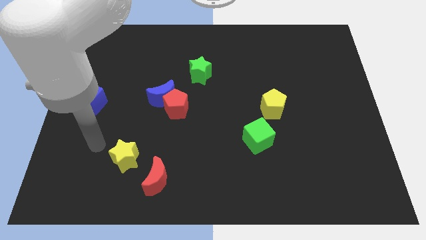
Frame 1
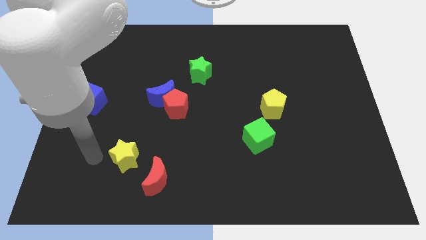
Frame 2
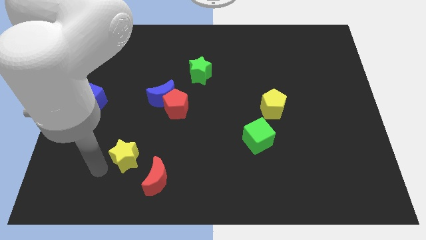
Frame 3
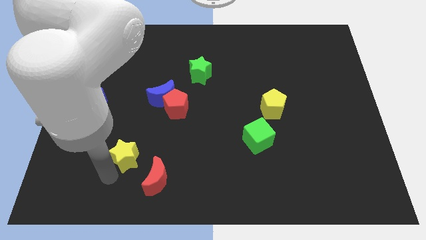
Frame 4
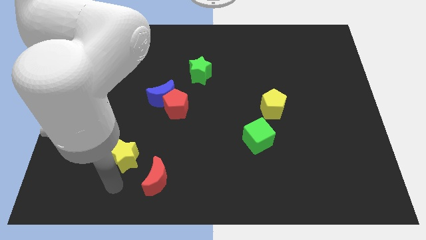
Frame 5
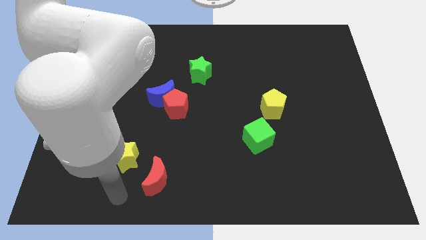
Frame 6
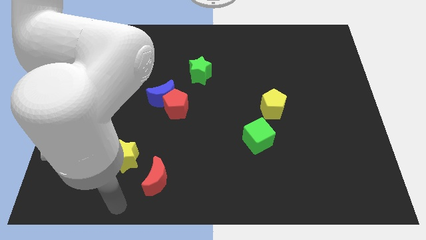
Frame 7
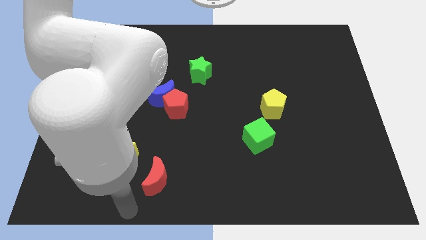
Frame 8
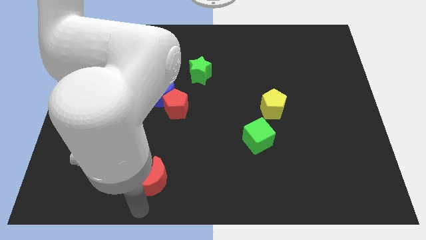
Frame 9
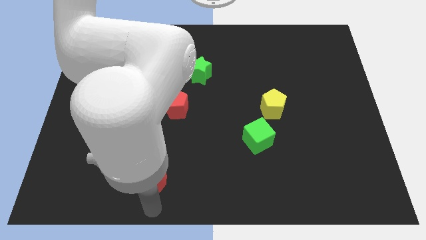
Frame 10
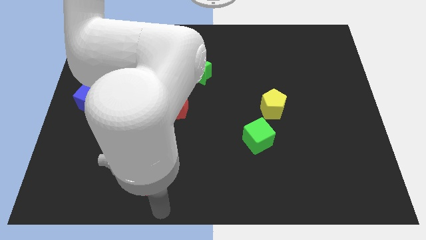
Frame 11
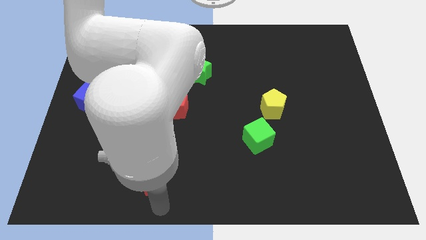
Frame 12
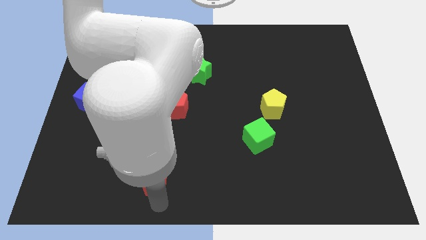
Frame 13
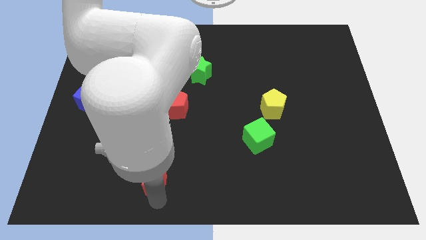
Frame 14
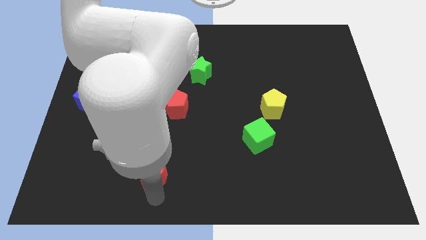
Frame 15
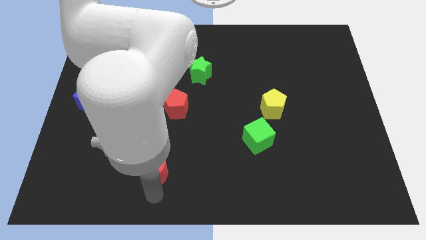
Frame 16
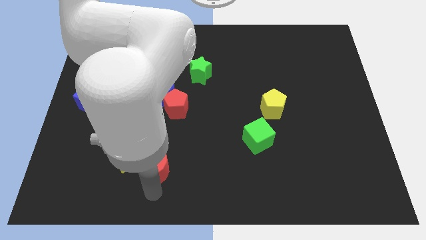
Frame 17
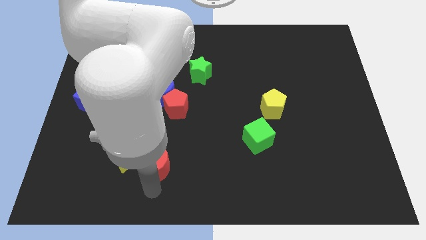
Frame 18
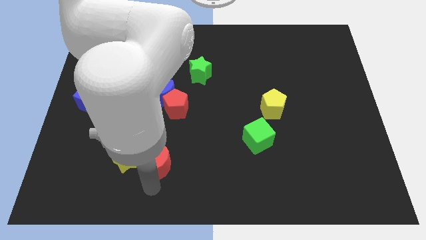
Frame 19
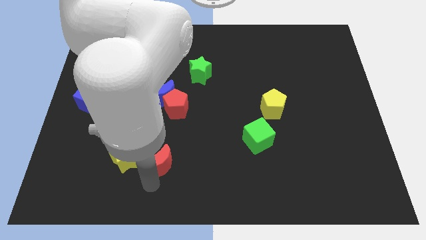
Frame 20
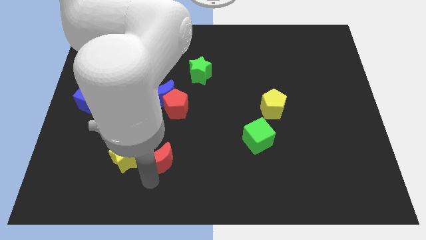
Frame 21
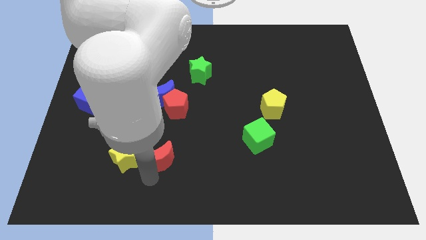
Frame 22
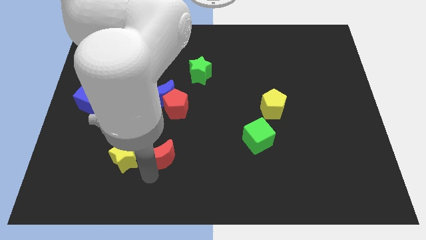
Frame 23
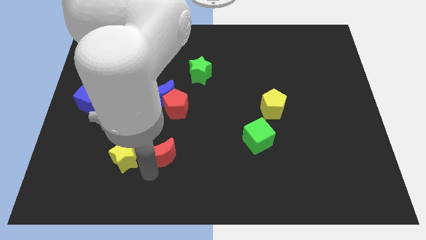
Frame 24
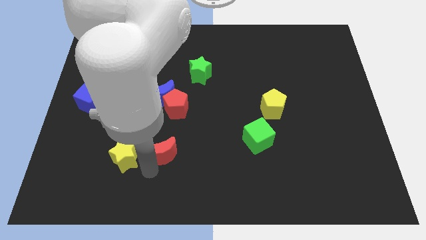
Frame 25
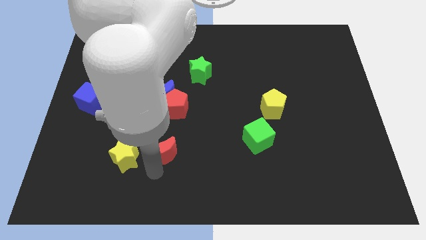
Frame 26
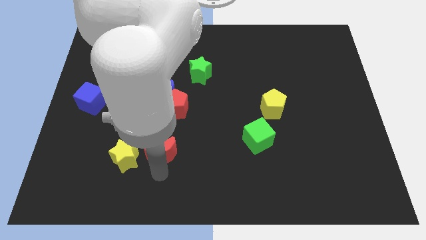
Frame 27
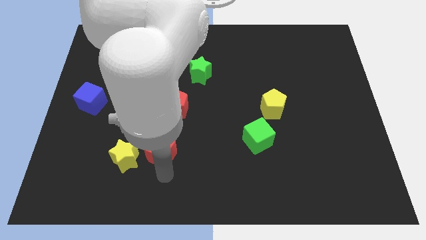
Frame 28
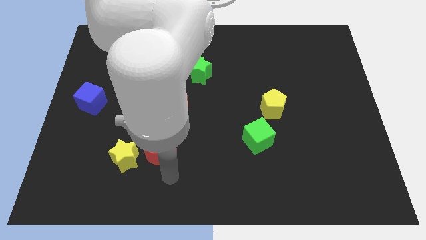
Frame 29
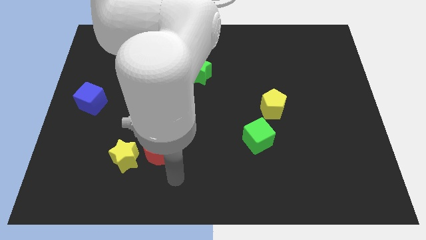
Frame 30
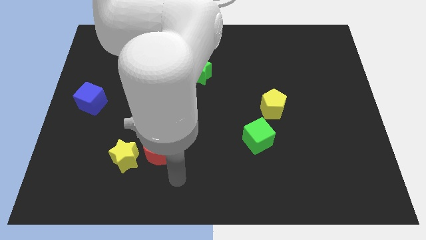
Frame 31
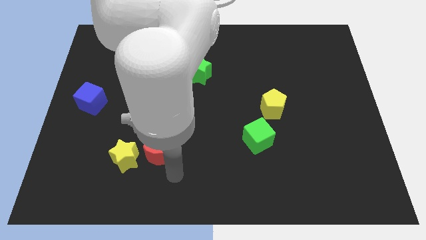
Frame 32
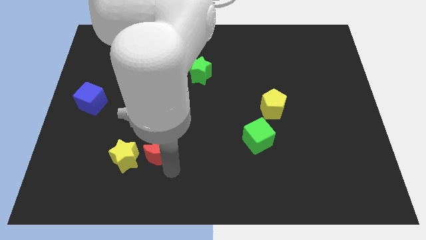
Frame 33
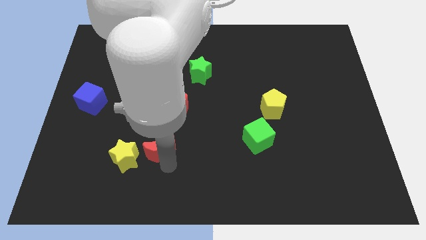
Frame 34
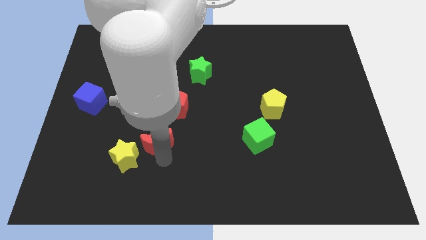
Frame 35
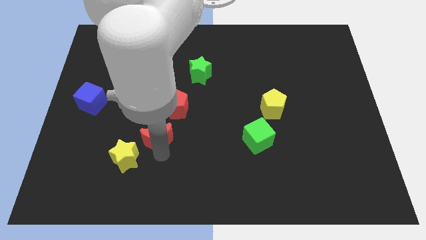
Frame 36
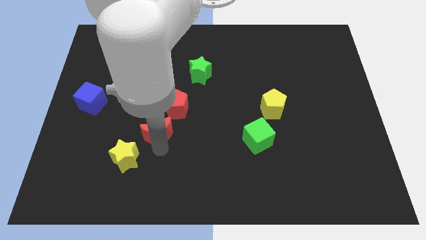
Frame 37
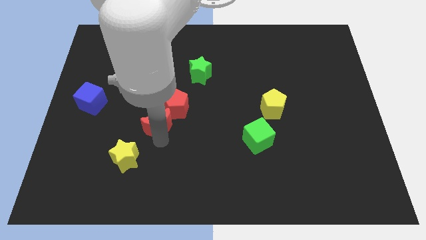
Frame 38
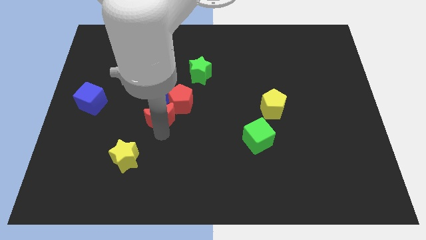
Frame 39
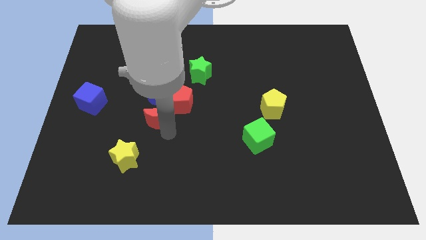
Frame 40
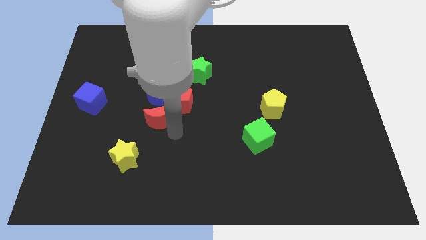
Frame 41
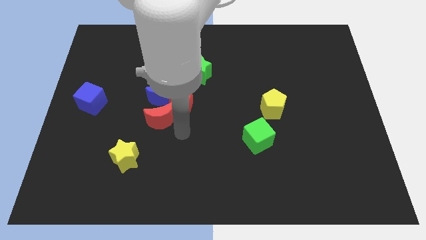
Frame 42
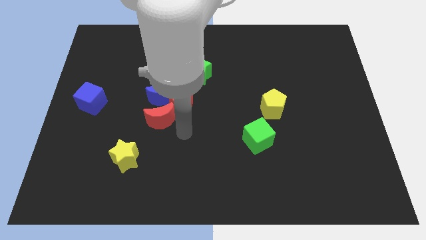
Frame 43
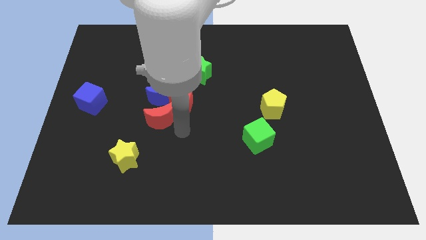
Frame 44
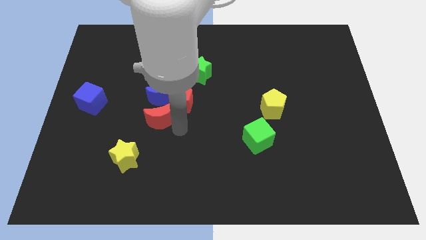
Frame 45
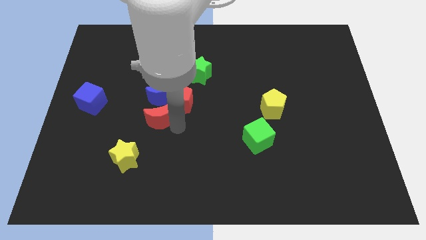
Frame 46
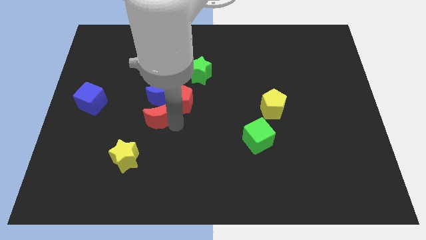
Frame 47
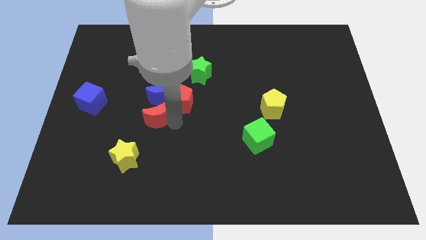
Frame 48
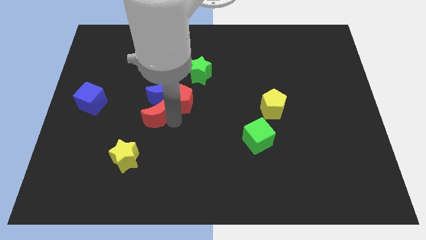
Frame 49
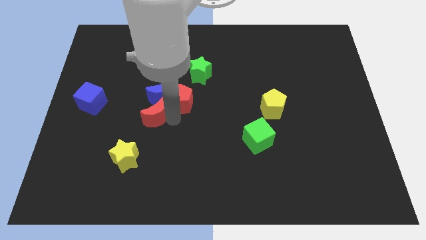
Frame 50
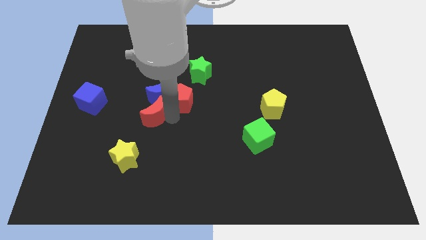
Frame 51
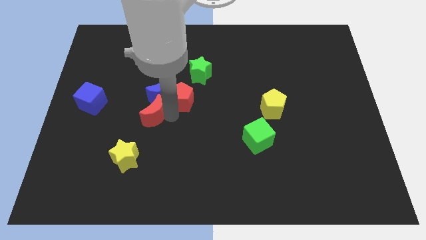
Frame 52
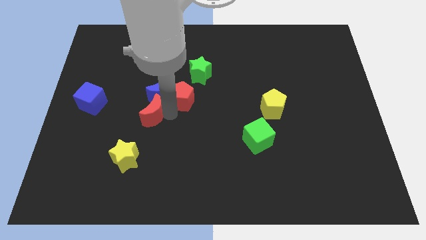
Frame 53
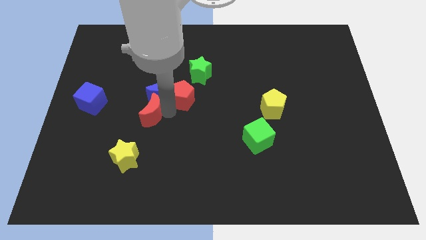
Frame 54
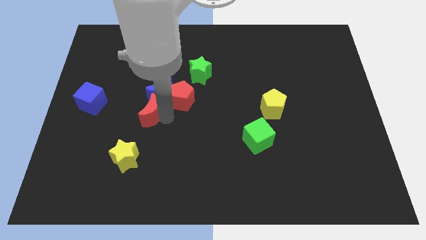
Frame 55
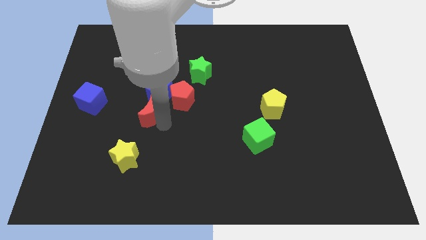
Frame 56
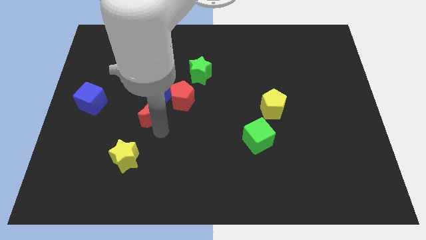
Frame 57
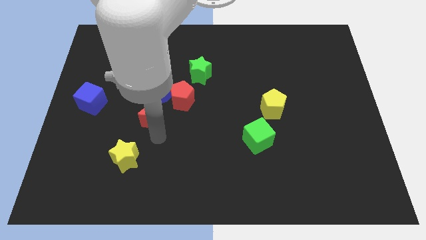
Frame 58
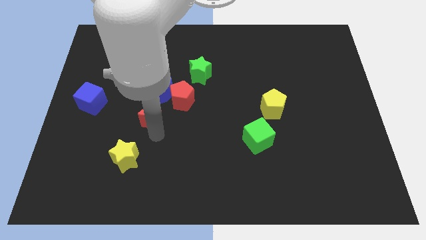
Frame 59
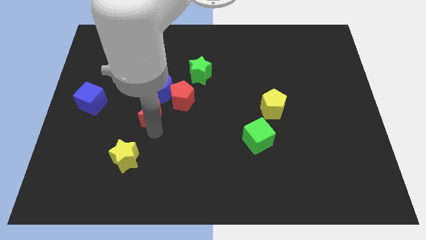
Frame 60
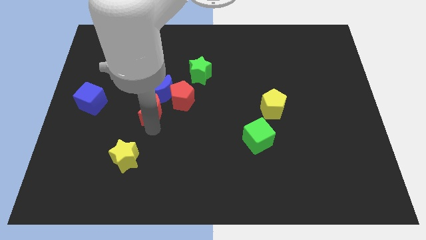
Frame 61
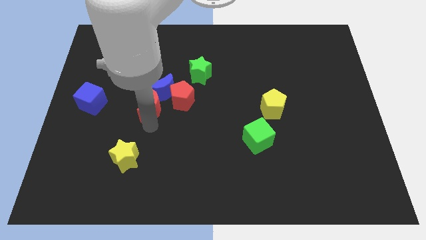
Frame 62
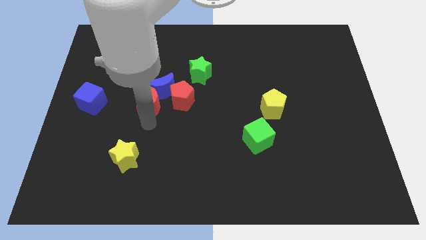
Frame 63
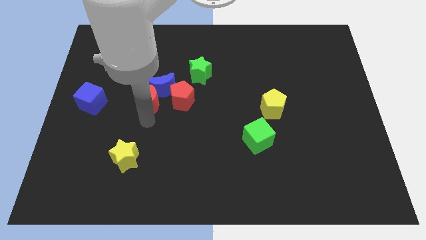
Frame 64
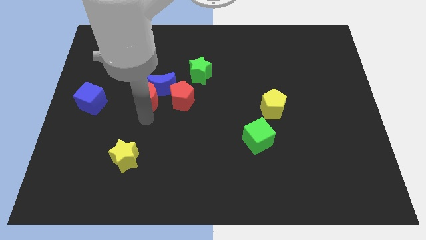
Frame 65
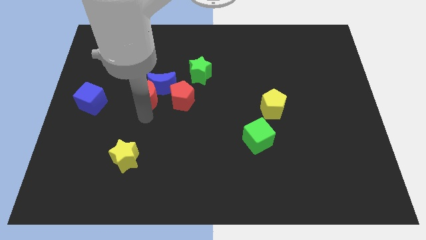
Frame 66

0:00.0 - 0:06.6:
push the red moon up

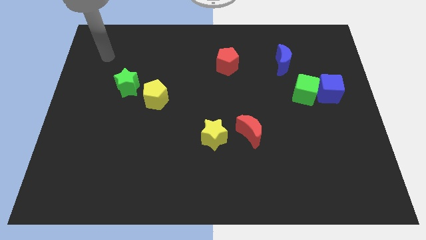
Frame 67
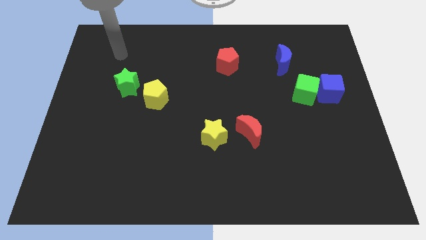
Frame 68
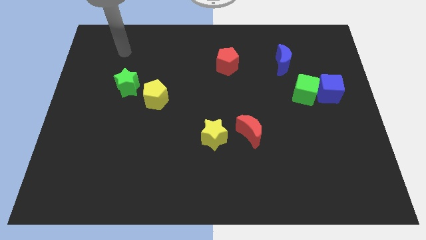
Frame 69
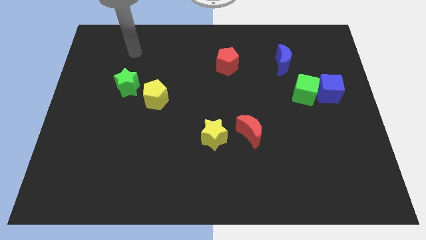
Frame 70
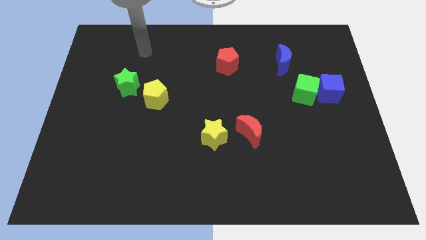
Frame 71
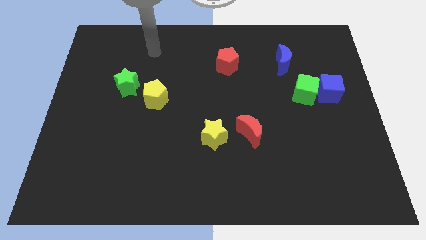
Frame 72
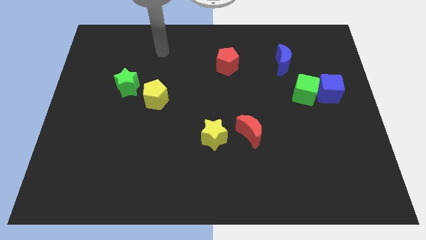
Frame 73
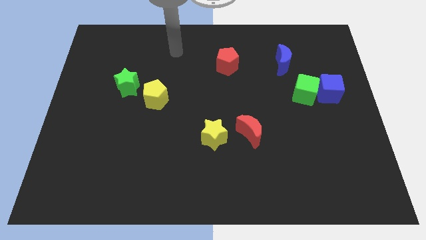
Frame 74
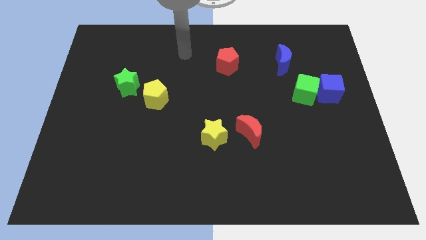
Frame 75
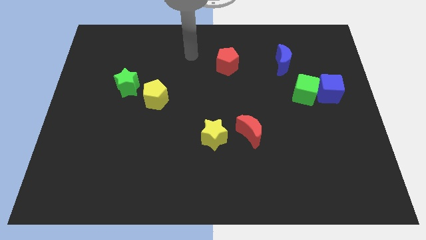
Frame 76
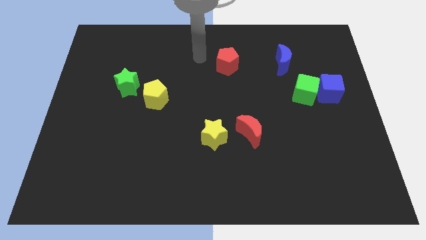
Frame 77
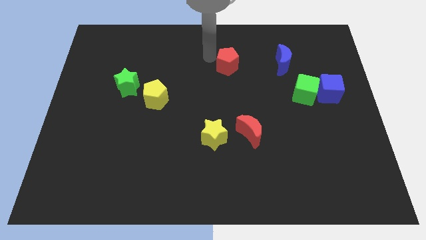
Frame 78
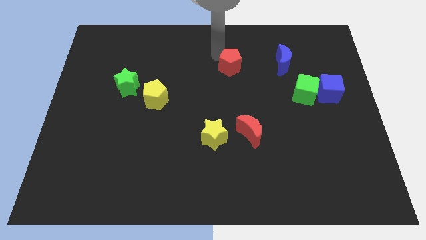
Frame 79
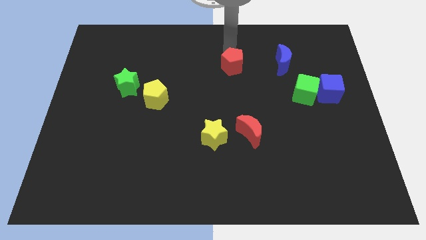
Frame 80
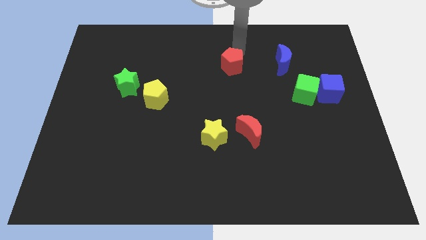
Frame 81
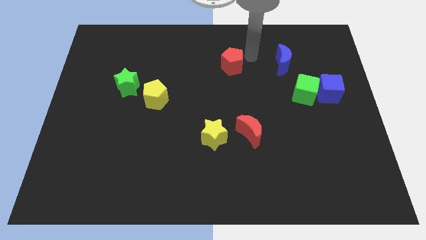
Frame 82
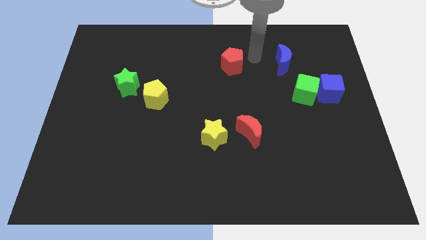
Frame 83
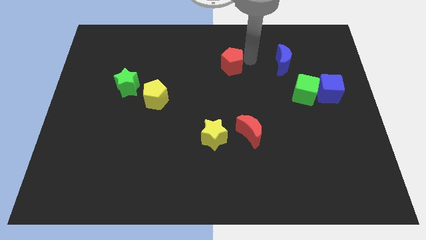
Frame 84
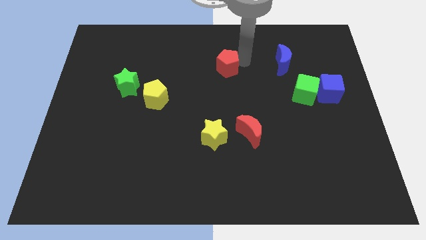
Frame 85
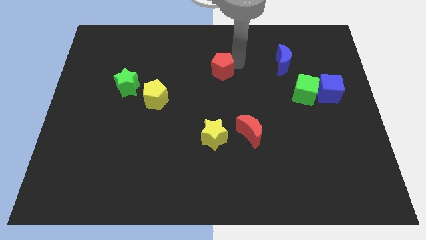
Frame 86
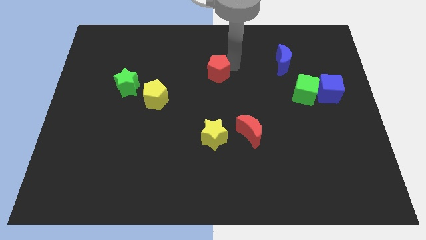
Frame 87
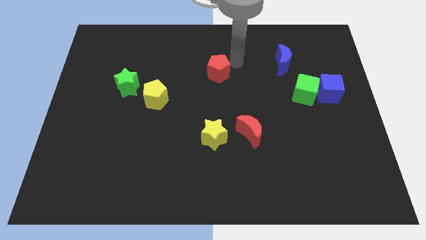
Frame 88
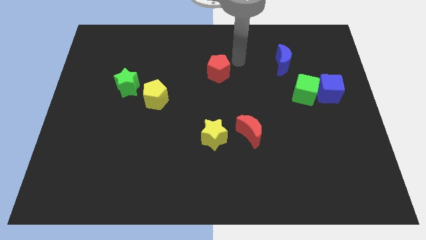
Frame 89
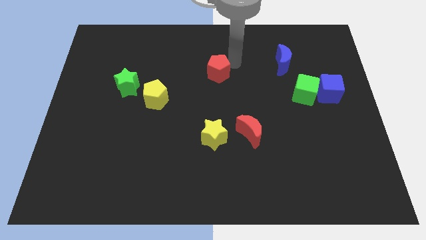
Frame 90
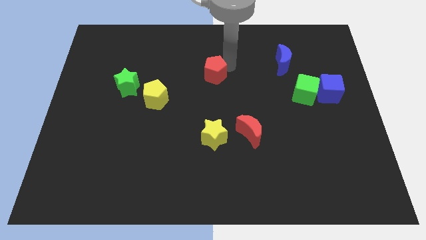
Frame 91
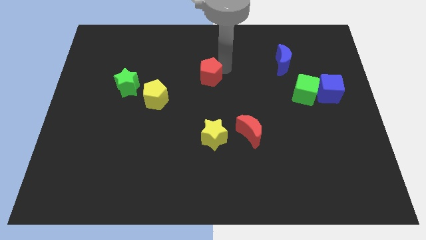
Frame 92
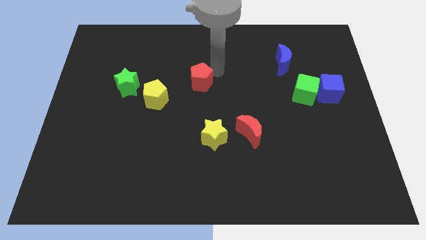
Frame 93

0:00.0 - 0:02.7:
slightly slide the red pentagon down and then left
